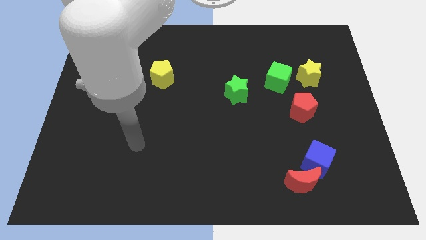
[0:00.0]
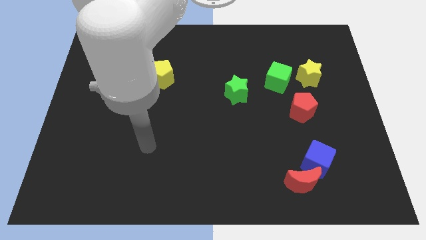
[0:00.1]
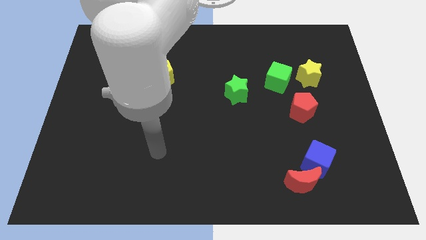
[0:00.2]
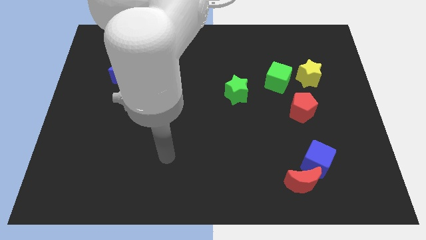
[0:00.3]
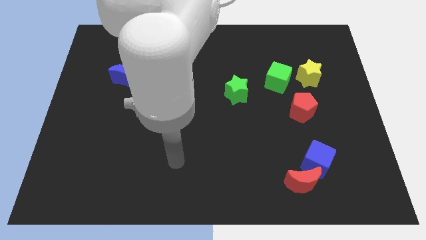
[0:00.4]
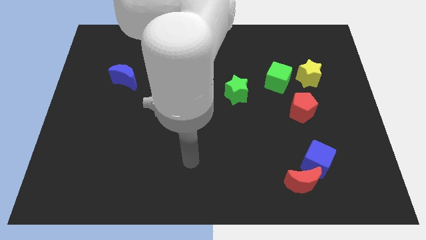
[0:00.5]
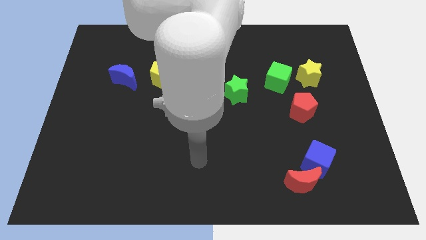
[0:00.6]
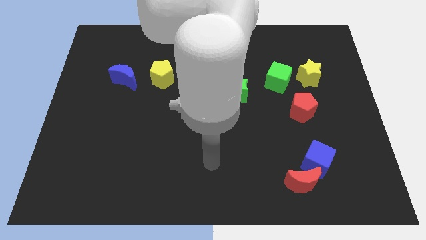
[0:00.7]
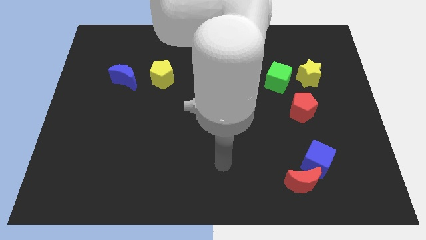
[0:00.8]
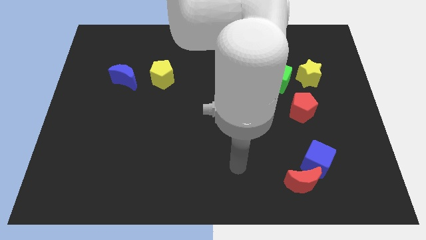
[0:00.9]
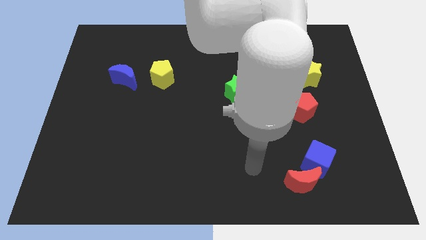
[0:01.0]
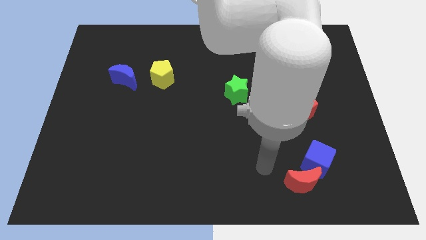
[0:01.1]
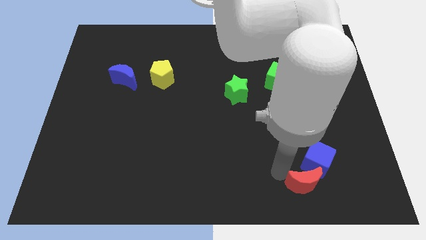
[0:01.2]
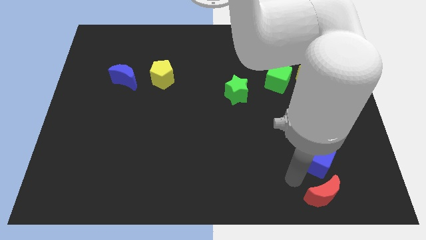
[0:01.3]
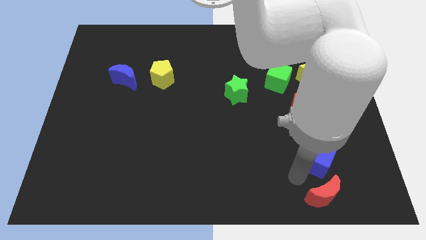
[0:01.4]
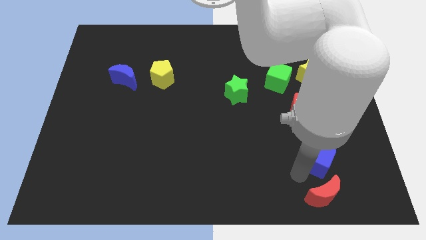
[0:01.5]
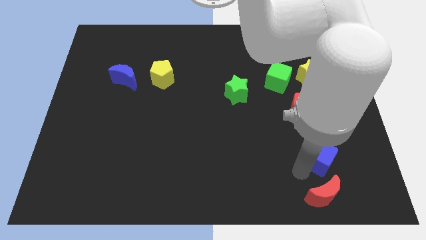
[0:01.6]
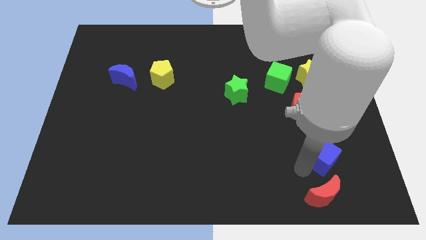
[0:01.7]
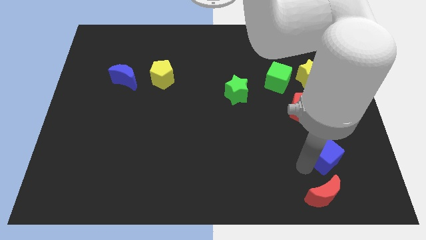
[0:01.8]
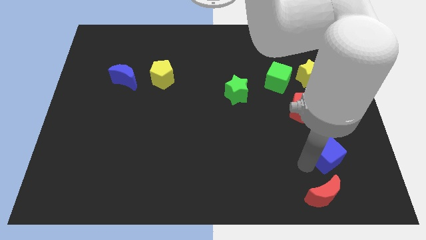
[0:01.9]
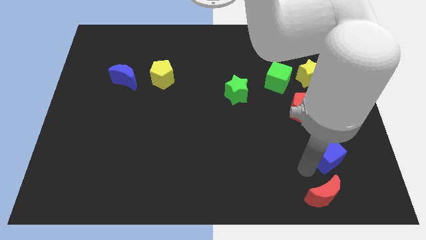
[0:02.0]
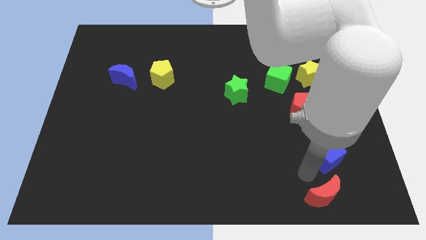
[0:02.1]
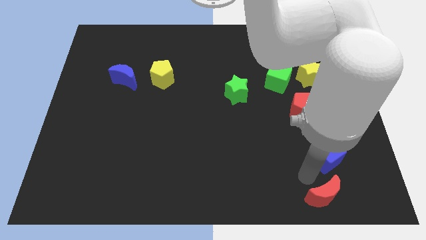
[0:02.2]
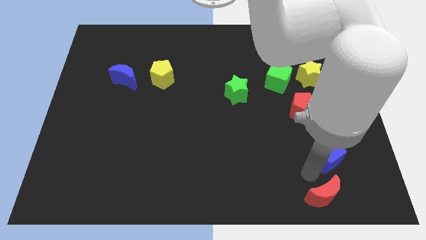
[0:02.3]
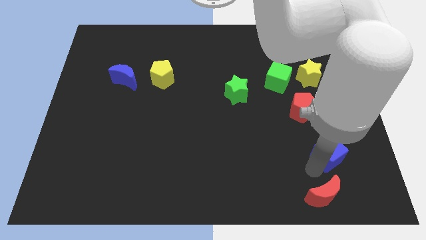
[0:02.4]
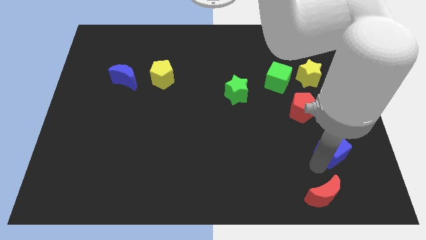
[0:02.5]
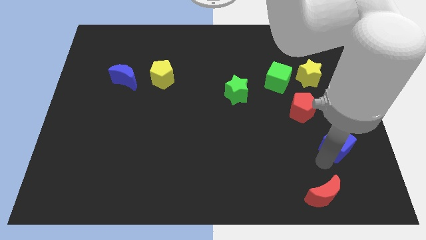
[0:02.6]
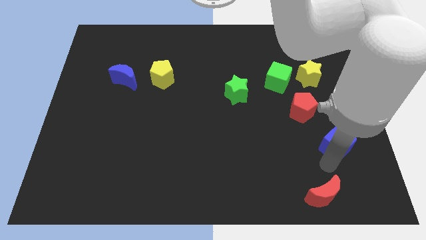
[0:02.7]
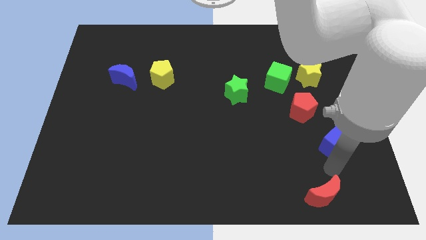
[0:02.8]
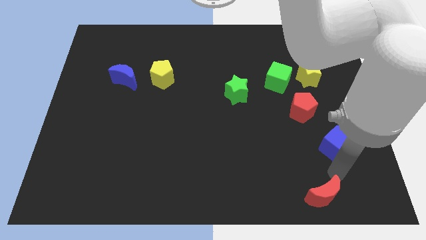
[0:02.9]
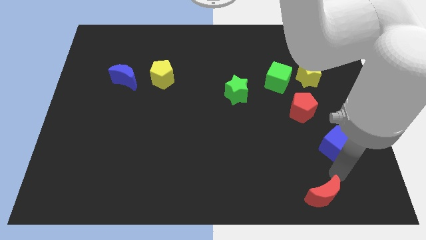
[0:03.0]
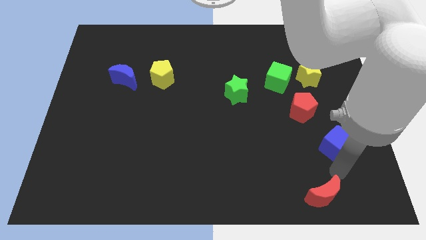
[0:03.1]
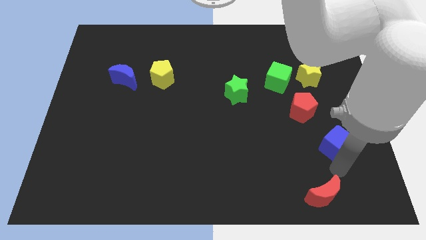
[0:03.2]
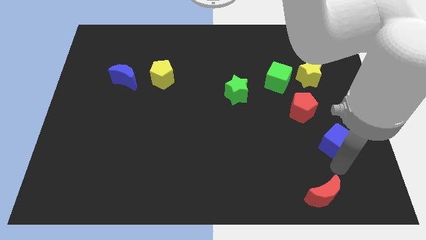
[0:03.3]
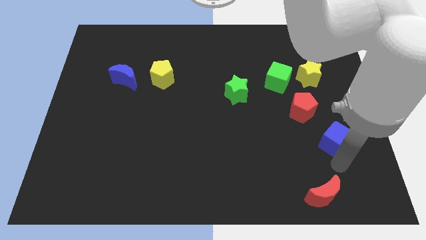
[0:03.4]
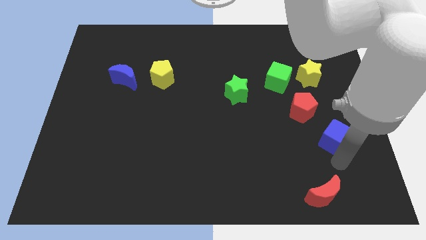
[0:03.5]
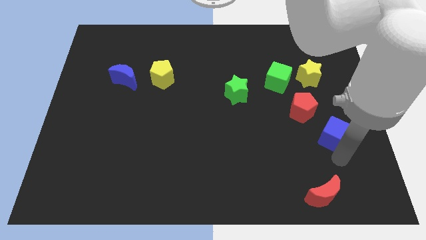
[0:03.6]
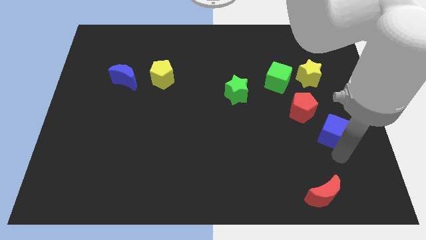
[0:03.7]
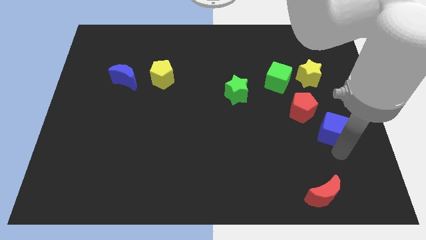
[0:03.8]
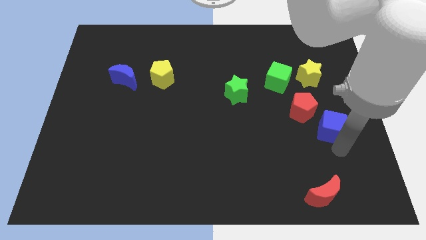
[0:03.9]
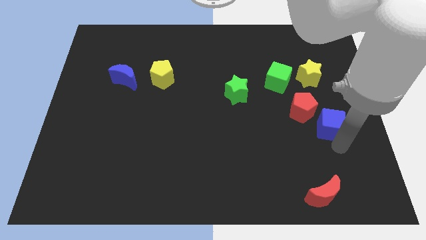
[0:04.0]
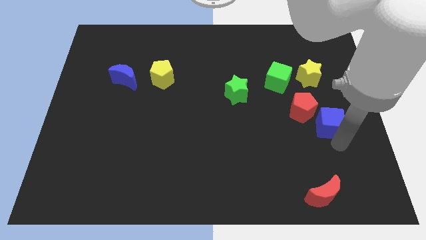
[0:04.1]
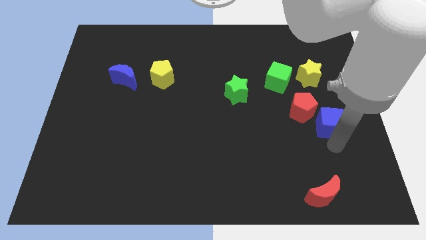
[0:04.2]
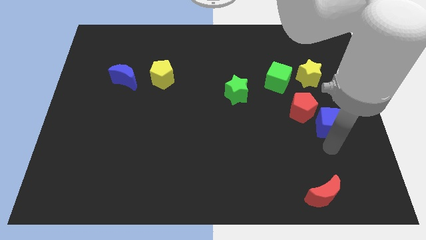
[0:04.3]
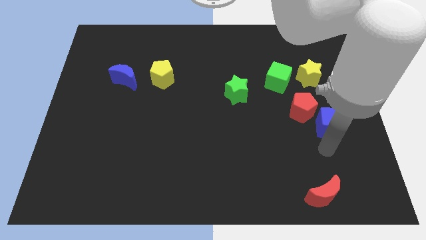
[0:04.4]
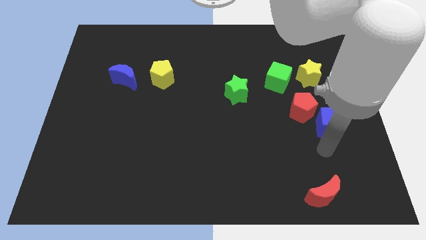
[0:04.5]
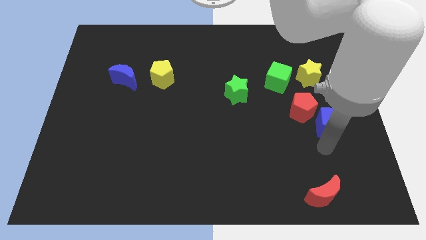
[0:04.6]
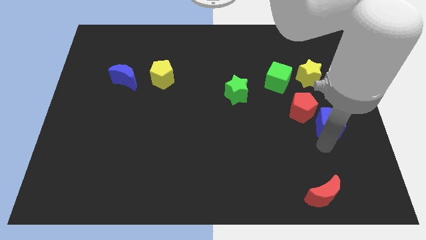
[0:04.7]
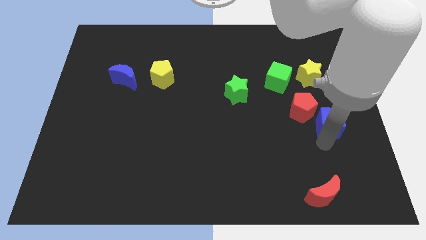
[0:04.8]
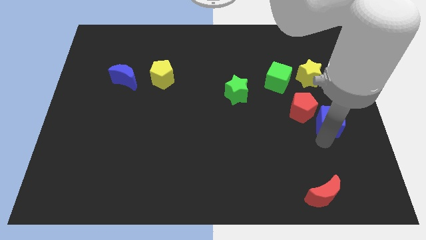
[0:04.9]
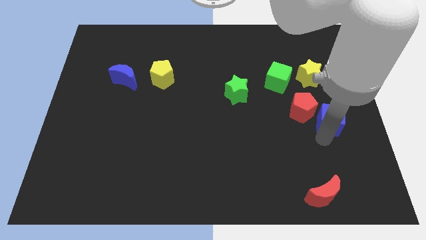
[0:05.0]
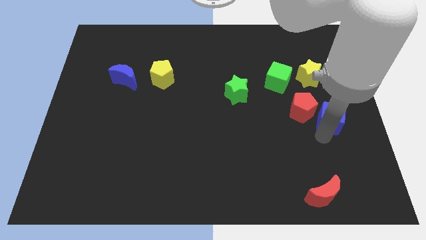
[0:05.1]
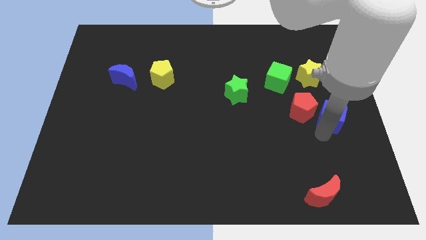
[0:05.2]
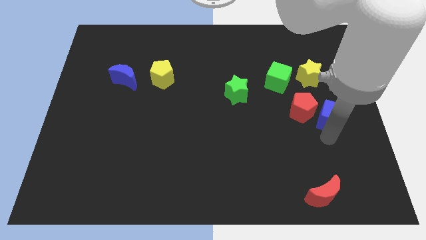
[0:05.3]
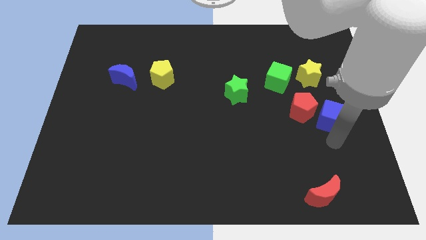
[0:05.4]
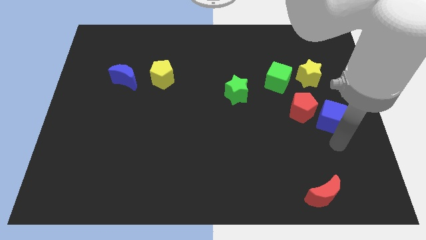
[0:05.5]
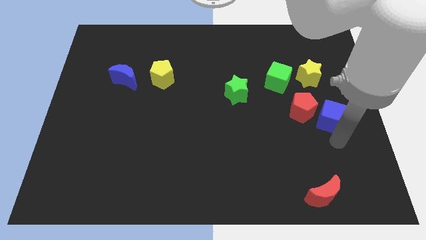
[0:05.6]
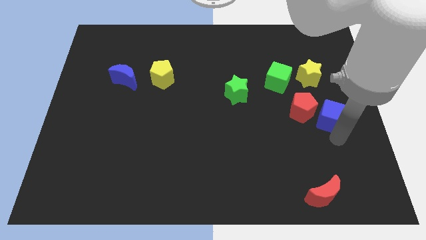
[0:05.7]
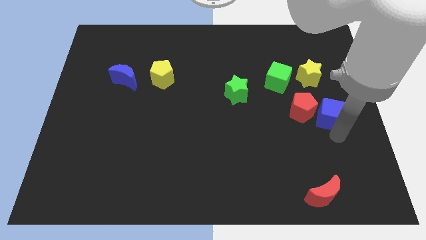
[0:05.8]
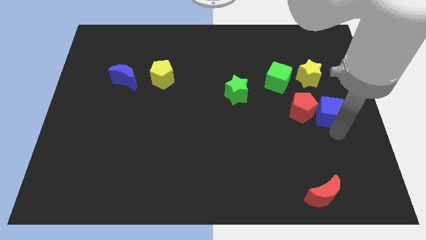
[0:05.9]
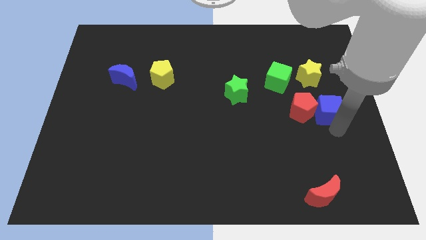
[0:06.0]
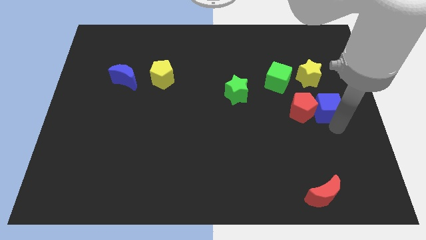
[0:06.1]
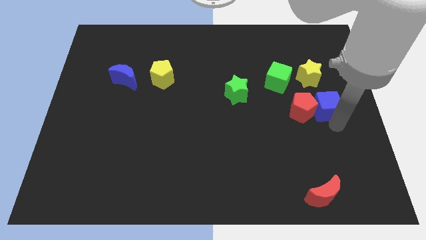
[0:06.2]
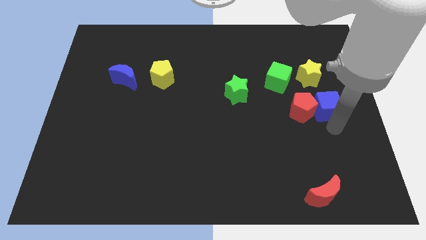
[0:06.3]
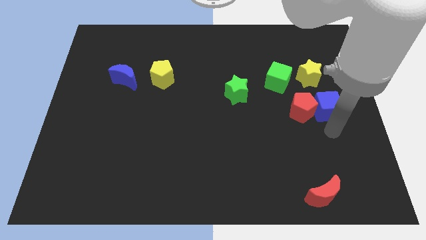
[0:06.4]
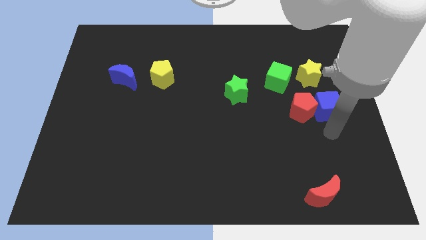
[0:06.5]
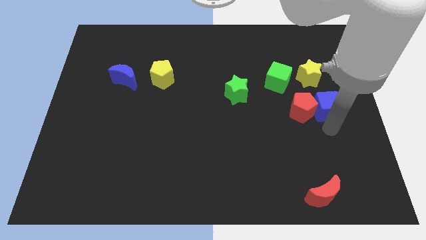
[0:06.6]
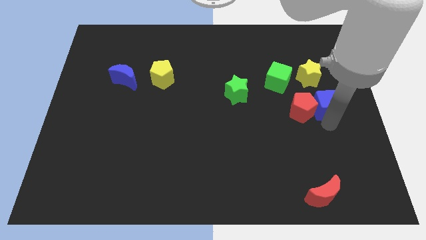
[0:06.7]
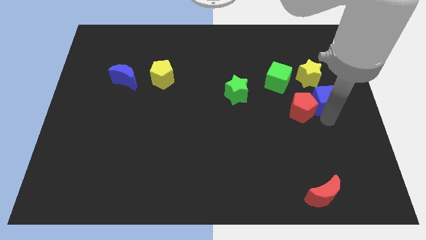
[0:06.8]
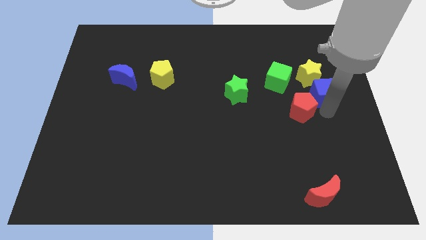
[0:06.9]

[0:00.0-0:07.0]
slide the blue cube close to the yellow star

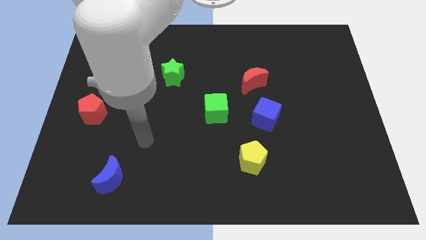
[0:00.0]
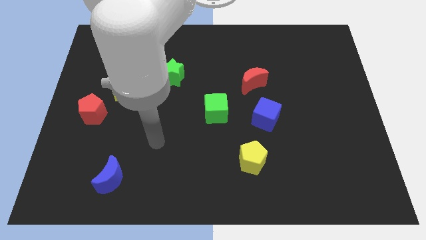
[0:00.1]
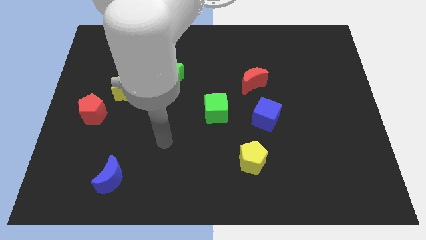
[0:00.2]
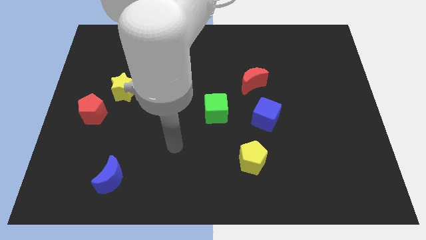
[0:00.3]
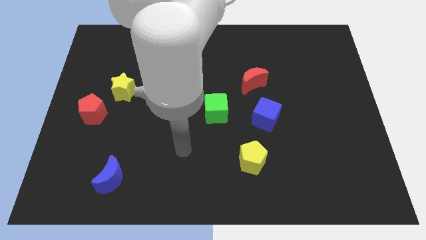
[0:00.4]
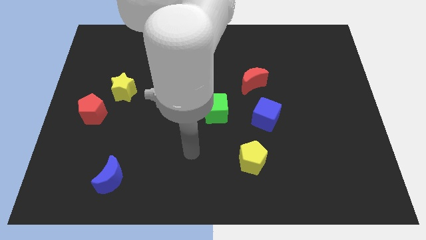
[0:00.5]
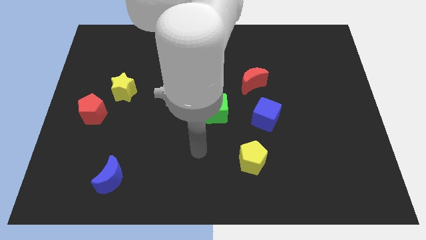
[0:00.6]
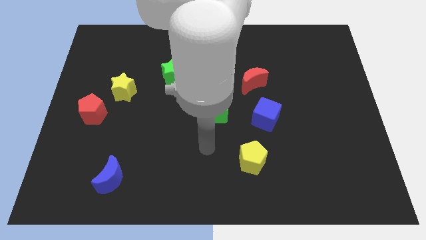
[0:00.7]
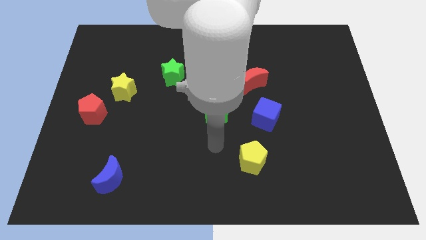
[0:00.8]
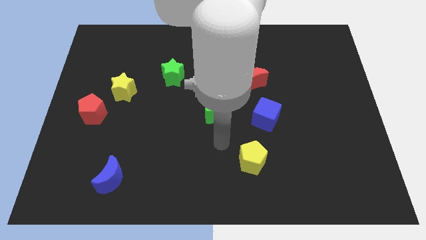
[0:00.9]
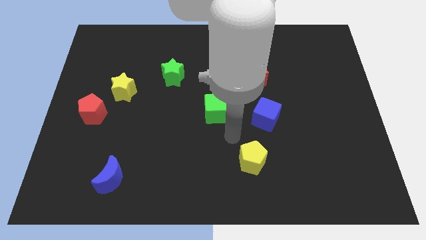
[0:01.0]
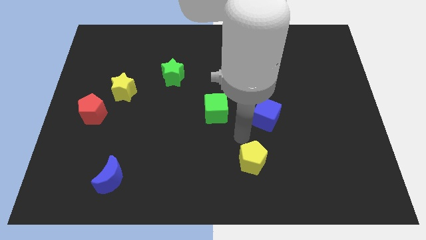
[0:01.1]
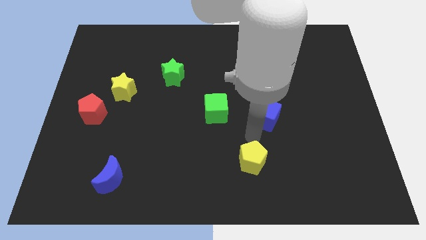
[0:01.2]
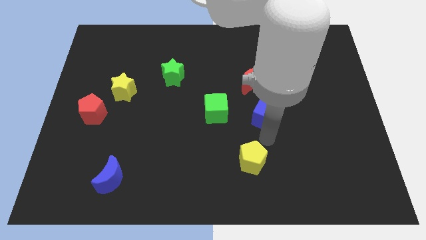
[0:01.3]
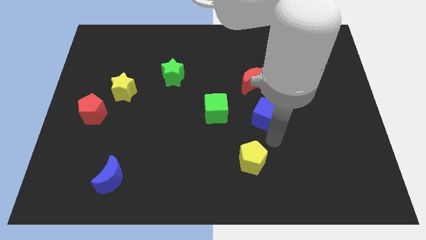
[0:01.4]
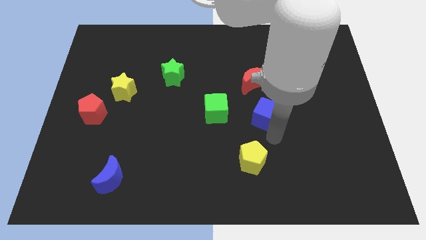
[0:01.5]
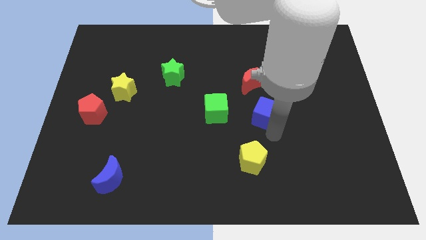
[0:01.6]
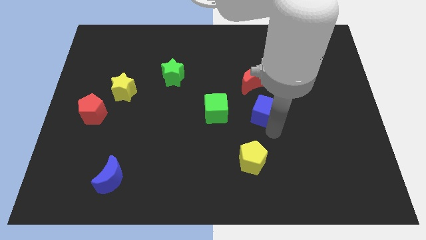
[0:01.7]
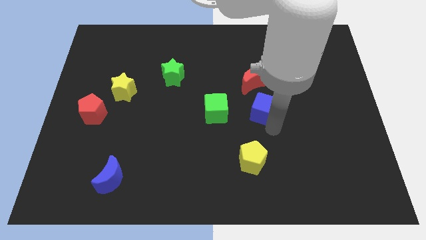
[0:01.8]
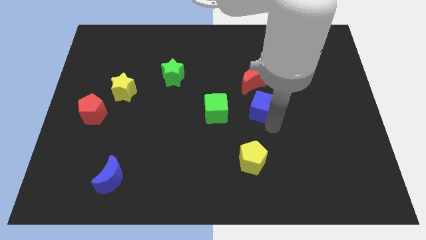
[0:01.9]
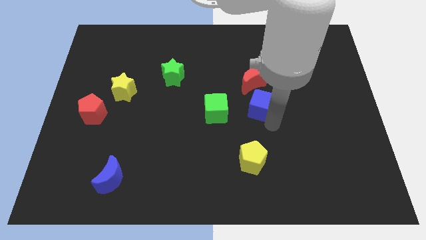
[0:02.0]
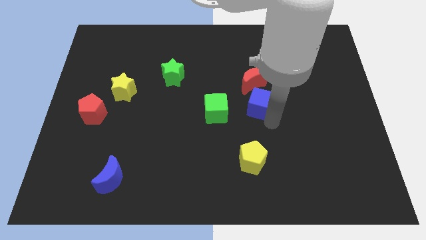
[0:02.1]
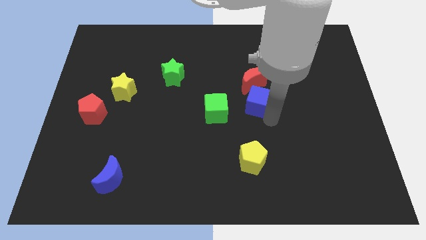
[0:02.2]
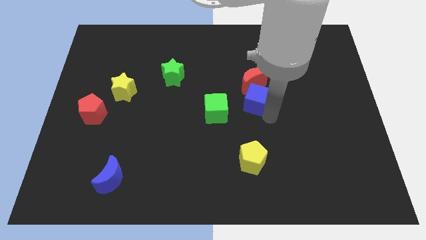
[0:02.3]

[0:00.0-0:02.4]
move the blue cube close to the red moon
